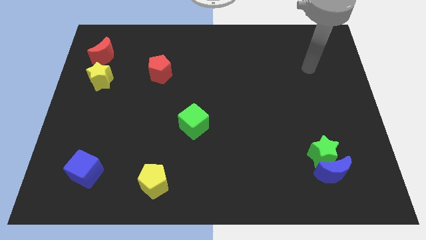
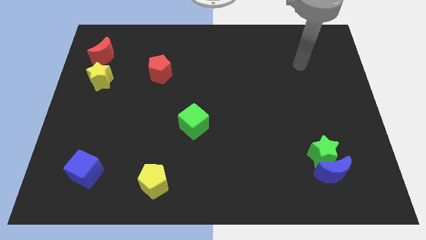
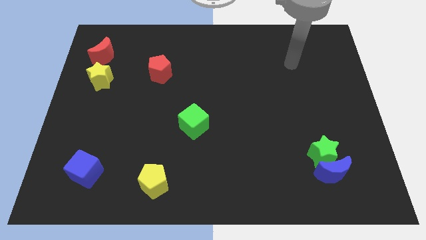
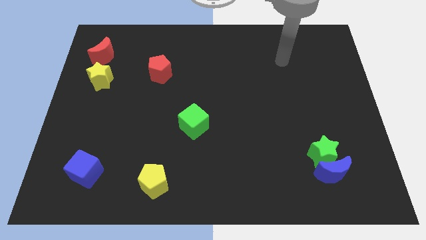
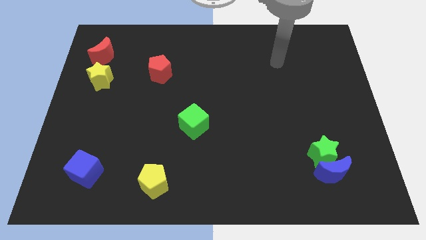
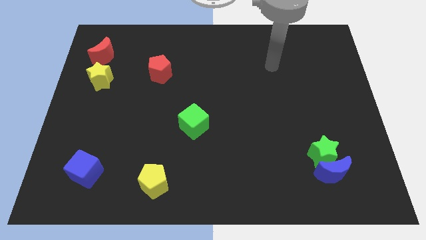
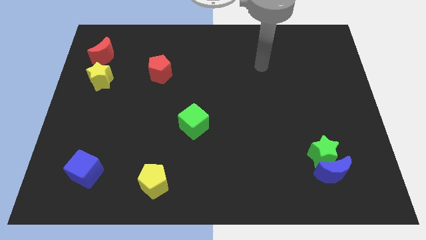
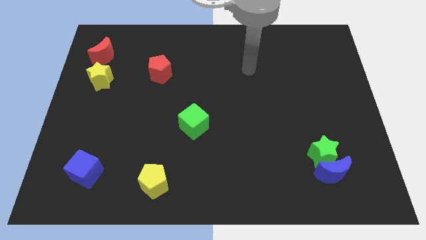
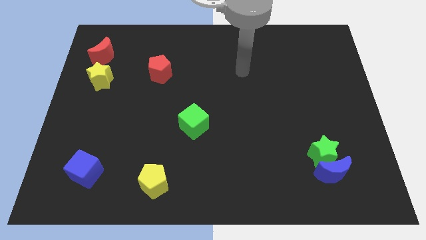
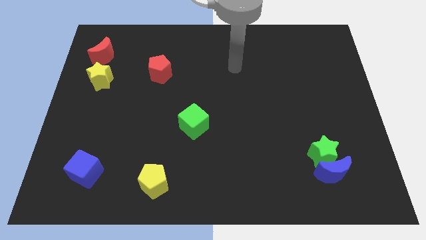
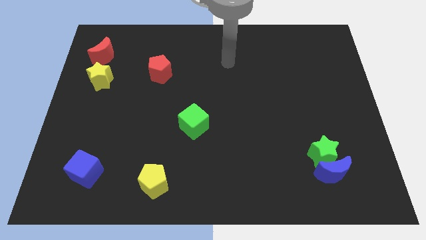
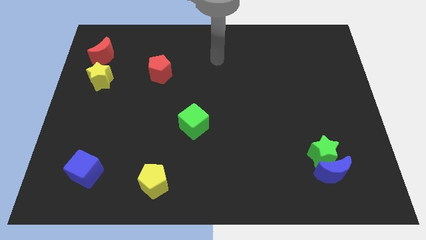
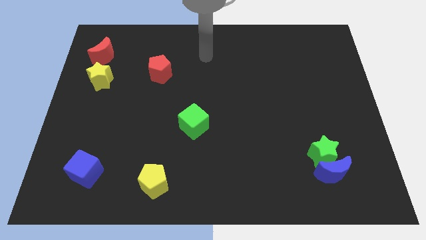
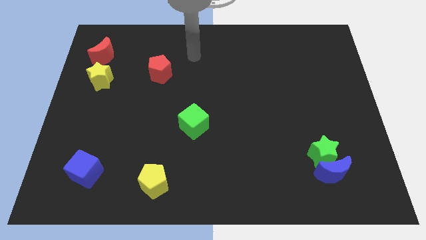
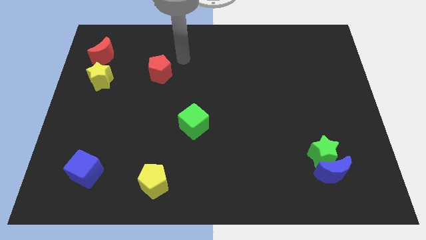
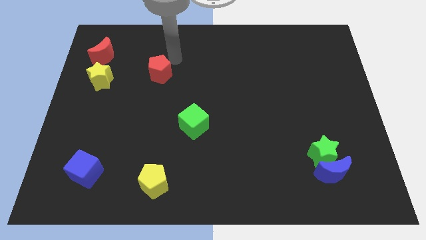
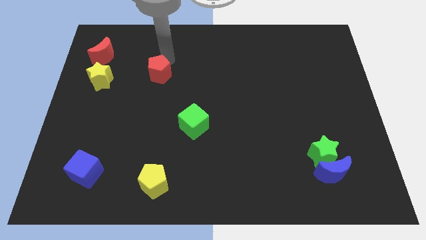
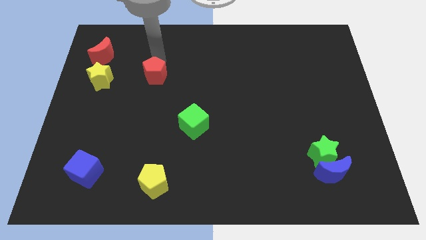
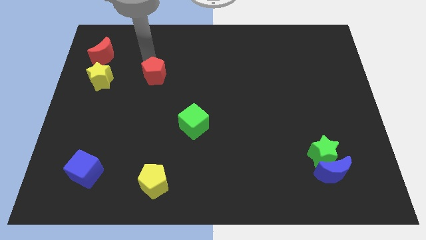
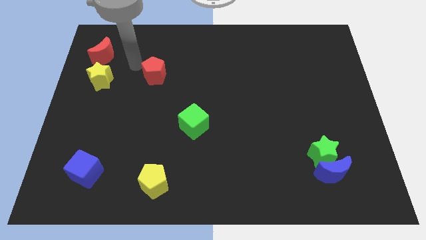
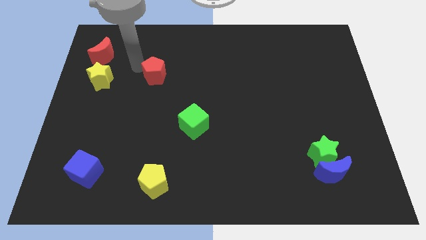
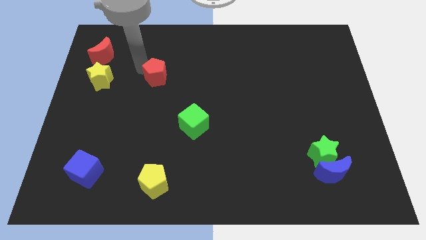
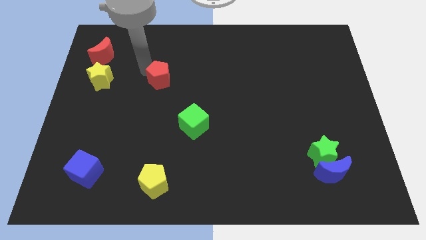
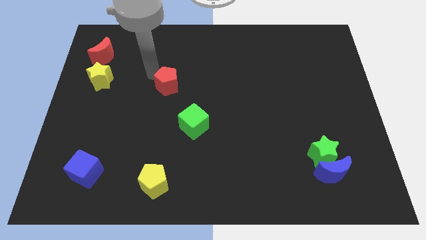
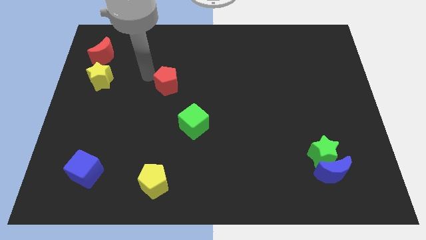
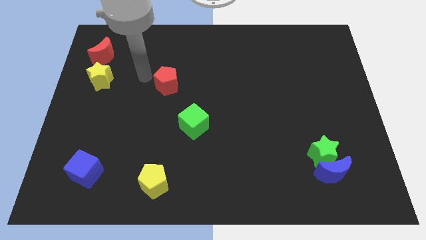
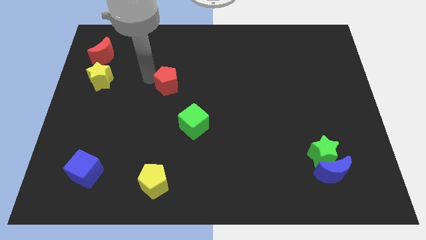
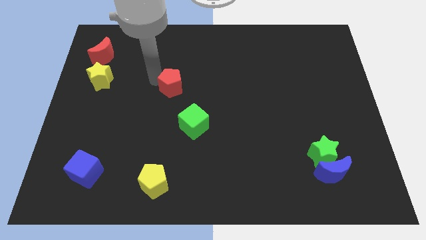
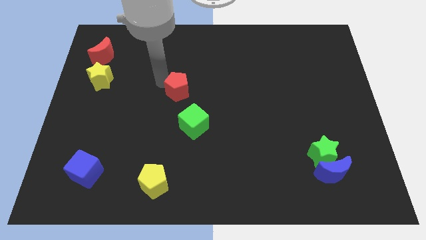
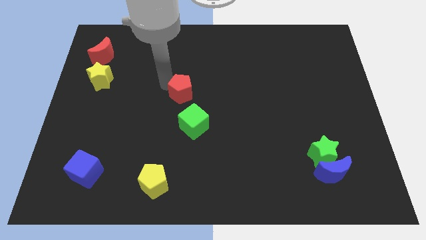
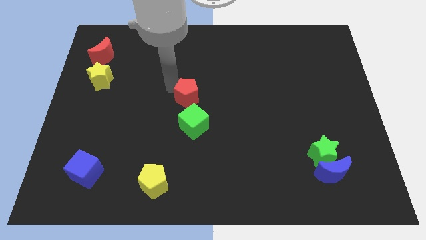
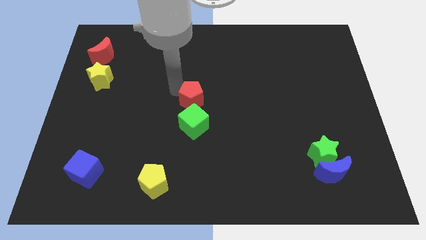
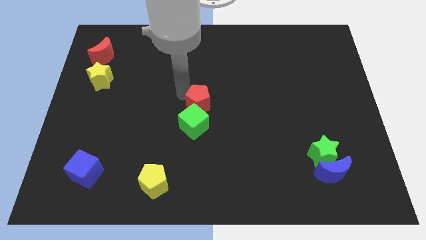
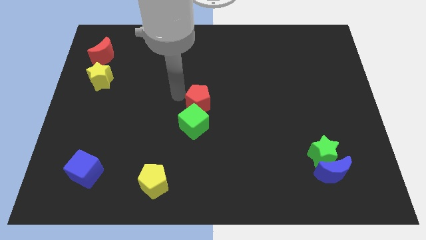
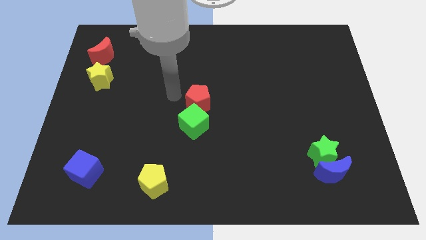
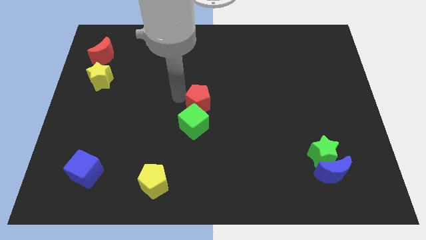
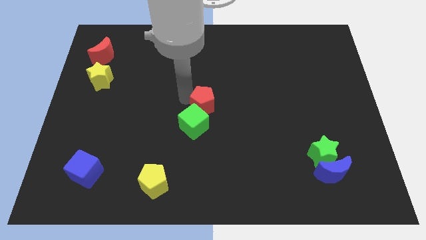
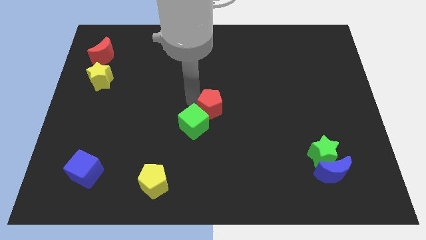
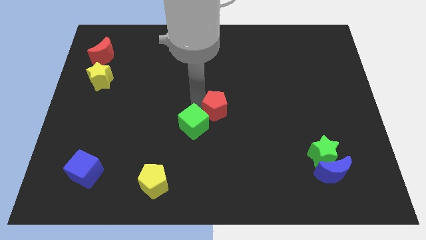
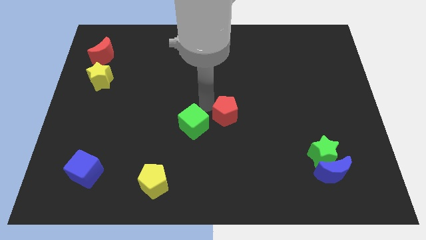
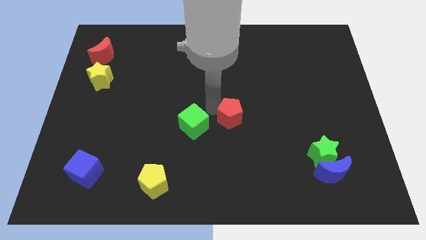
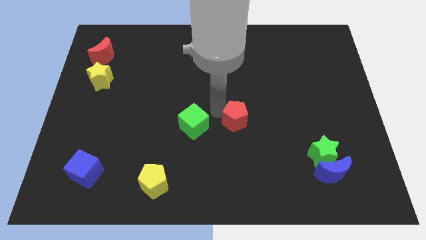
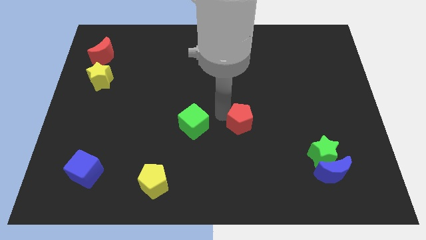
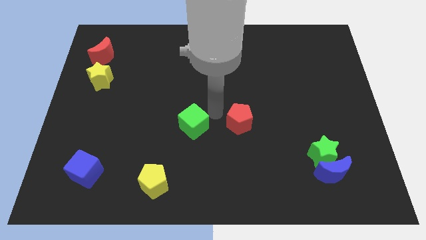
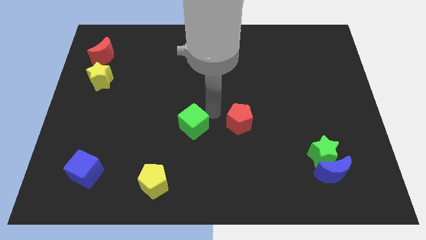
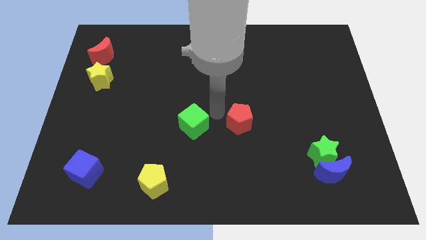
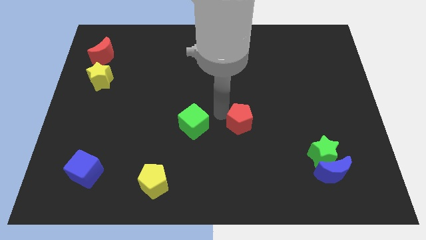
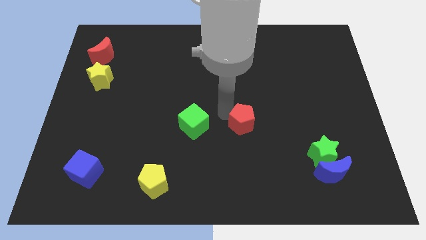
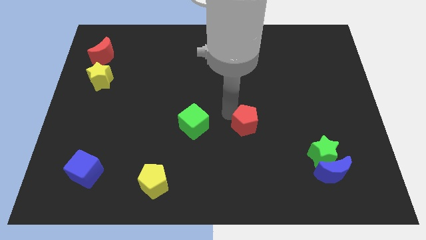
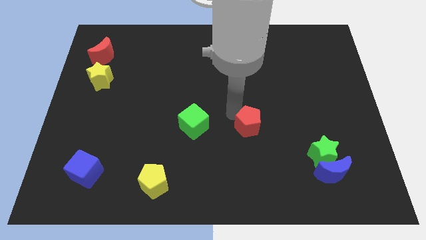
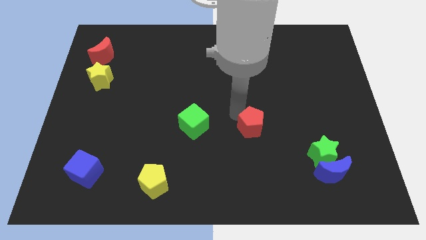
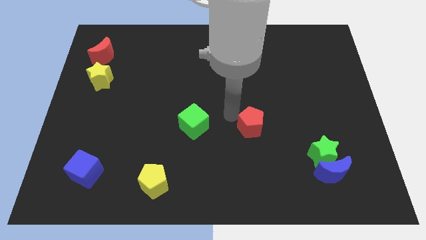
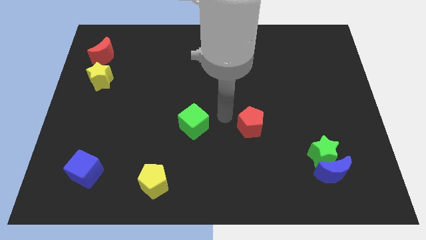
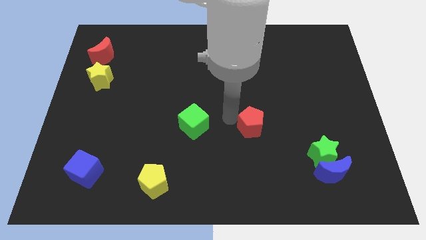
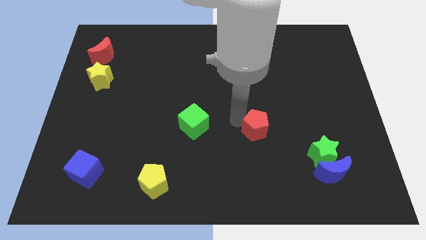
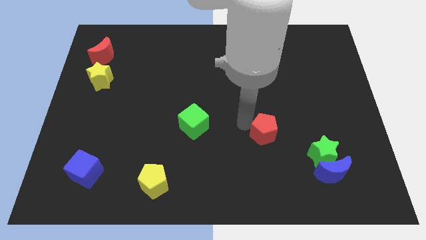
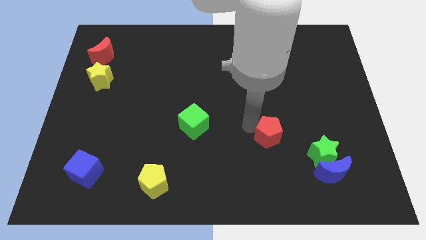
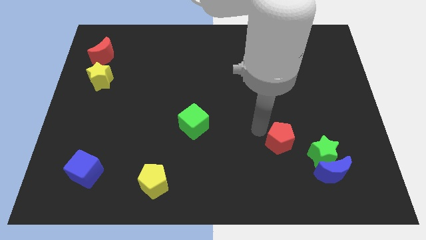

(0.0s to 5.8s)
slide the red pentagon diagonally up and to the left of the blue moon

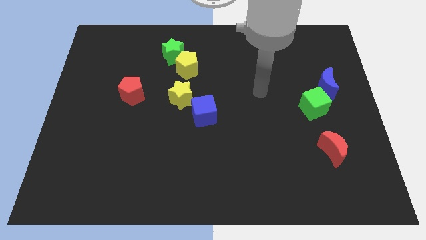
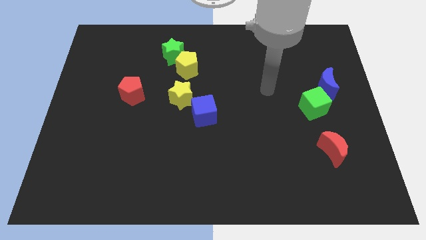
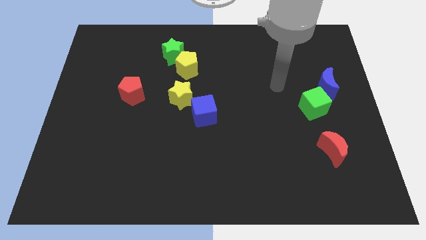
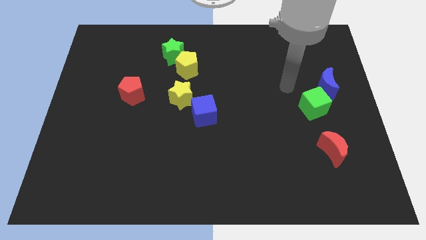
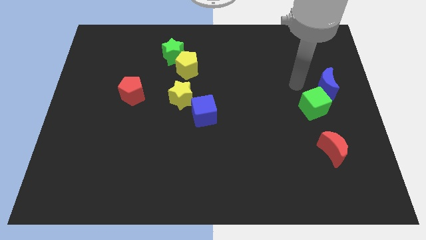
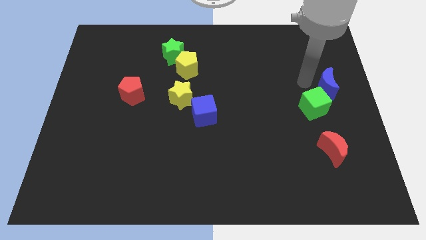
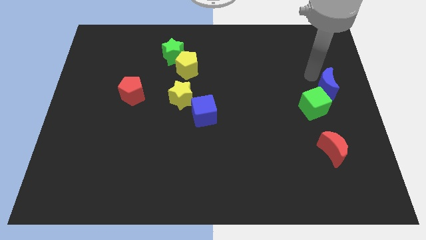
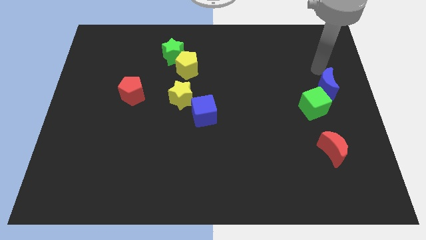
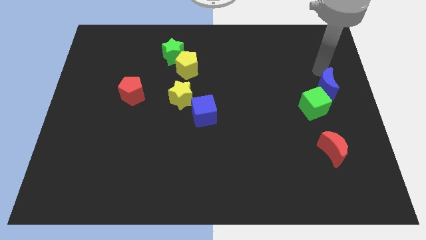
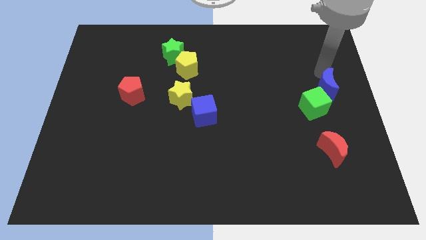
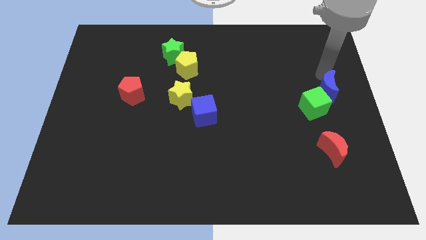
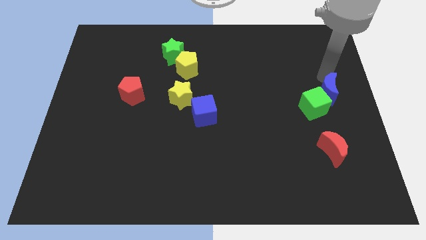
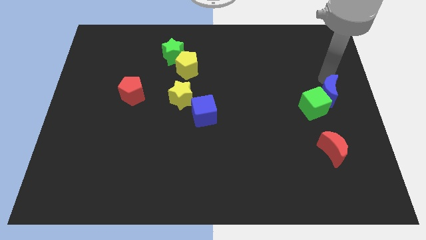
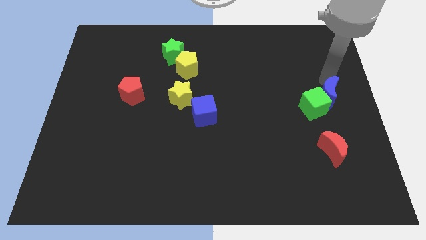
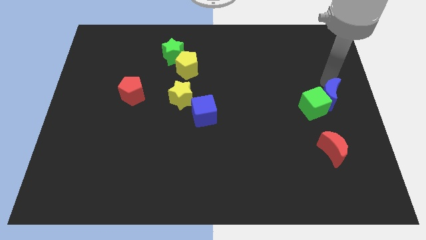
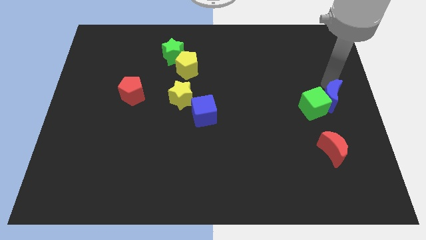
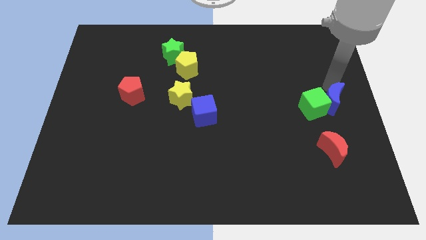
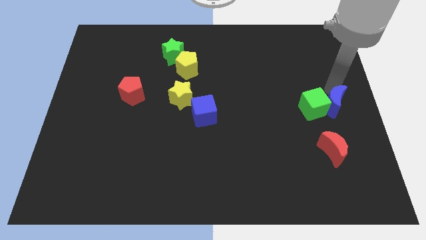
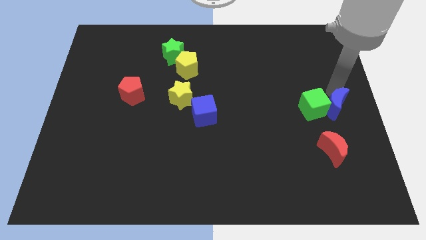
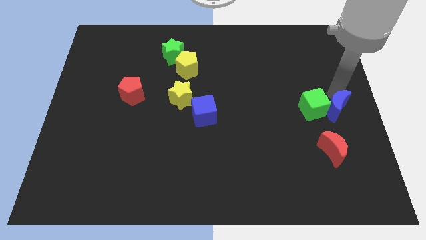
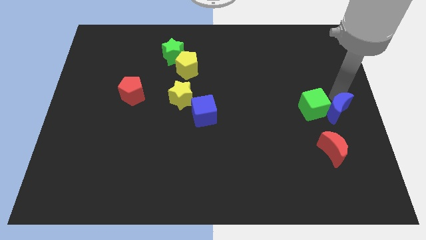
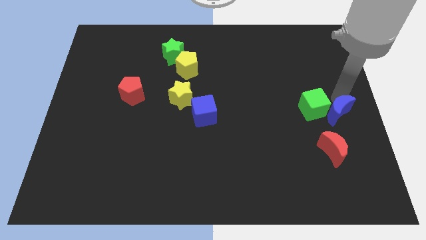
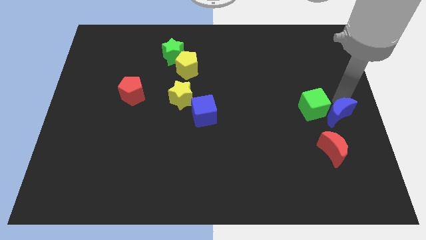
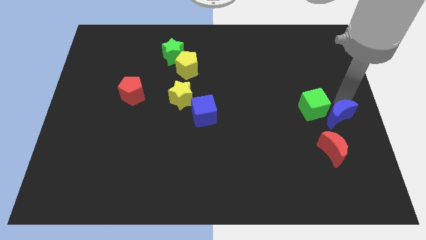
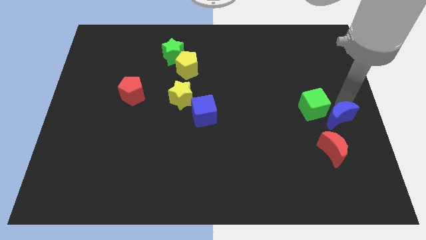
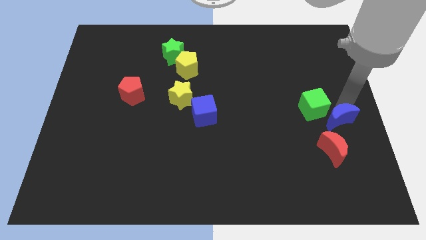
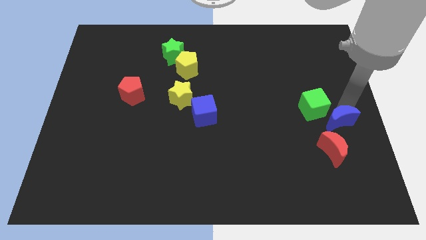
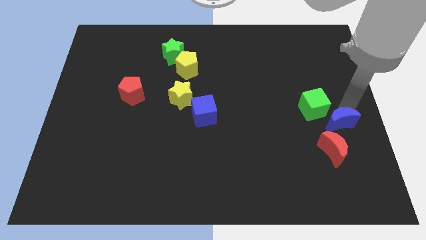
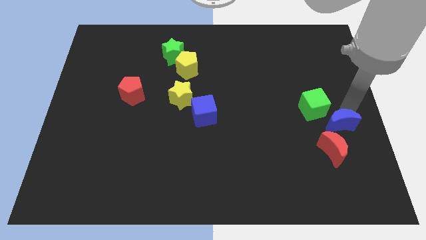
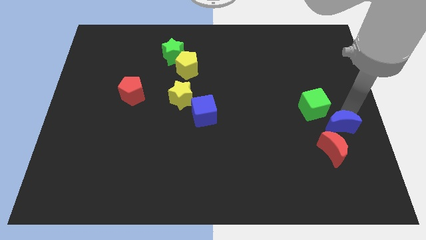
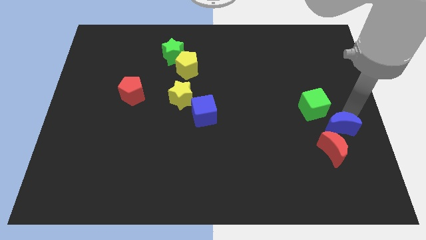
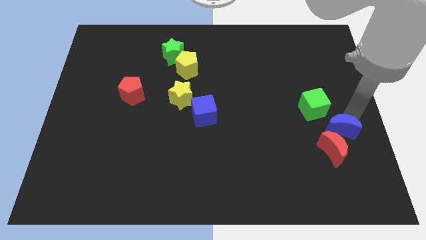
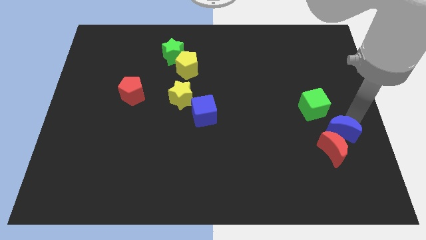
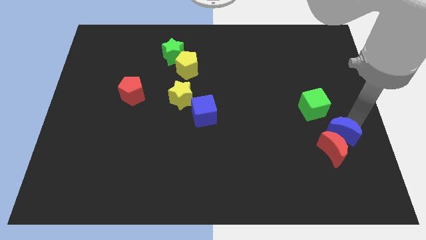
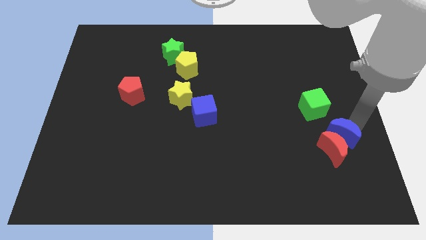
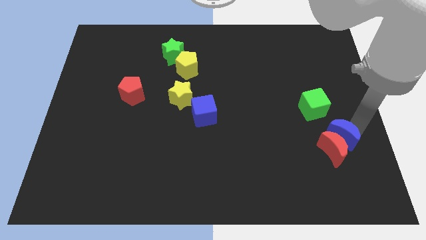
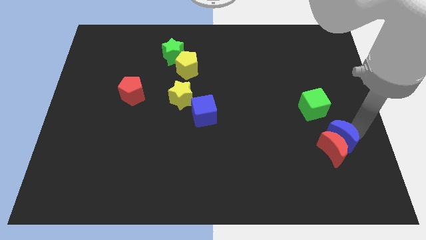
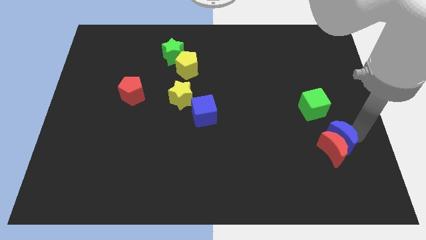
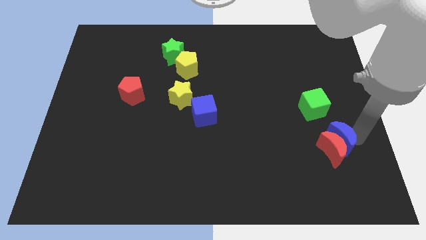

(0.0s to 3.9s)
move the blue moon to the top left of the red moon
